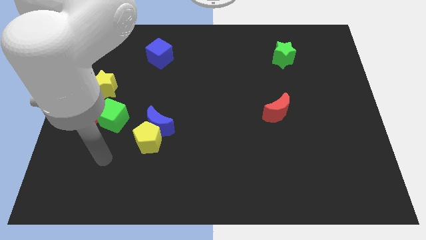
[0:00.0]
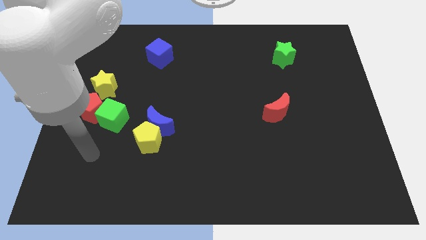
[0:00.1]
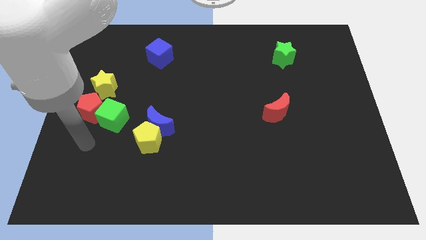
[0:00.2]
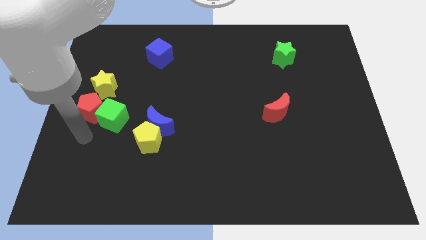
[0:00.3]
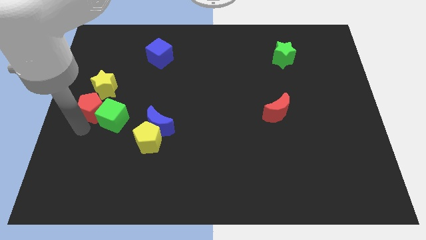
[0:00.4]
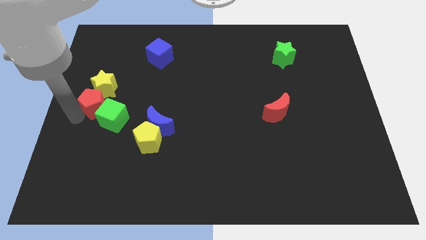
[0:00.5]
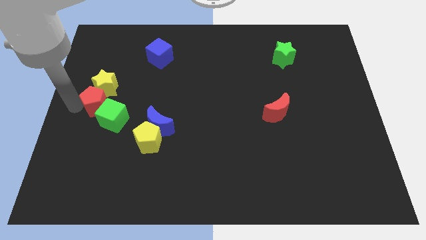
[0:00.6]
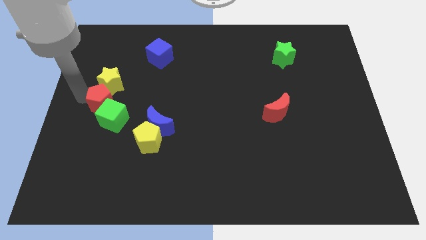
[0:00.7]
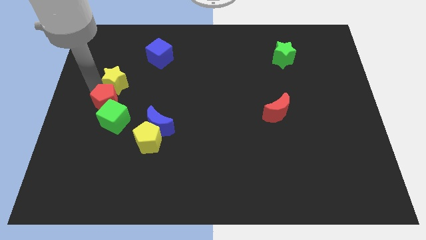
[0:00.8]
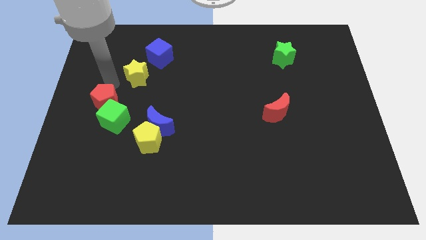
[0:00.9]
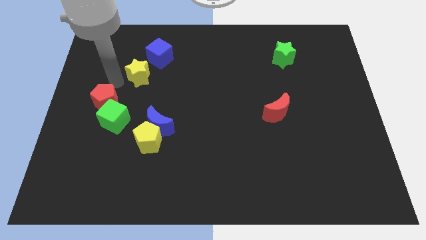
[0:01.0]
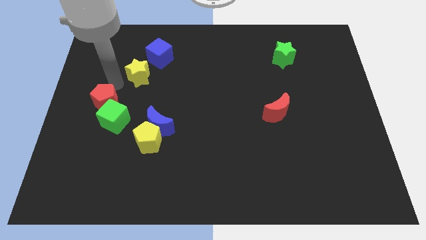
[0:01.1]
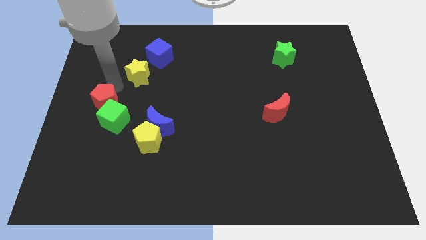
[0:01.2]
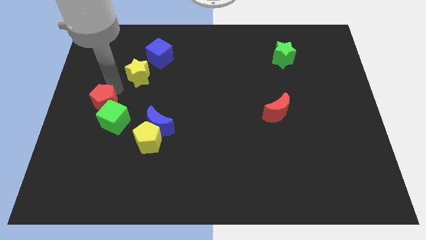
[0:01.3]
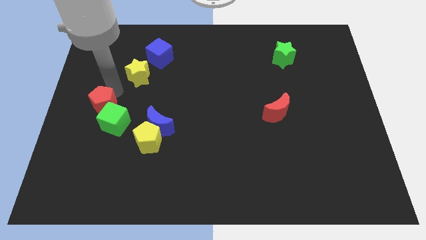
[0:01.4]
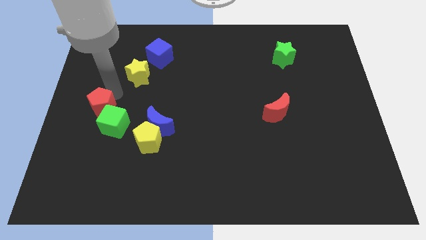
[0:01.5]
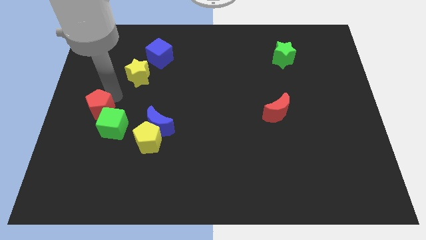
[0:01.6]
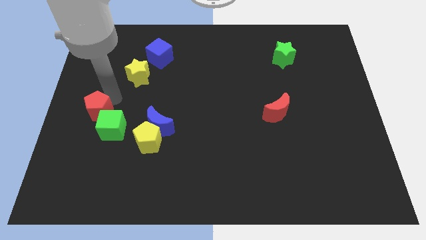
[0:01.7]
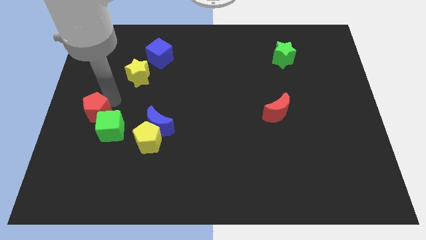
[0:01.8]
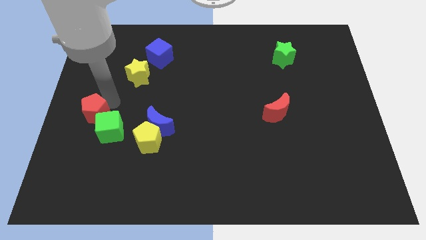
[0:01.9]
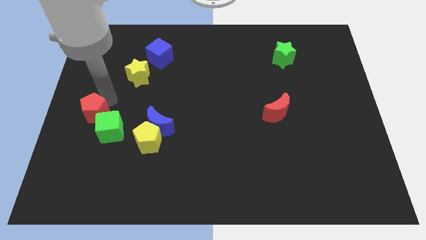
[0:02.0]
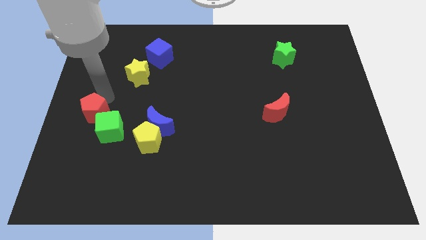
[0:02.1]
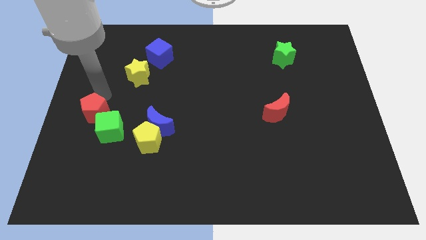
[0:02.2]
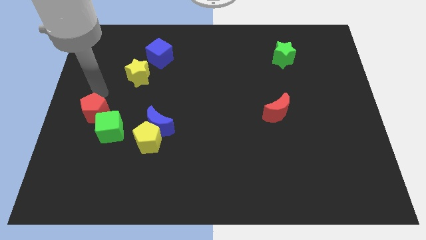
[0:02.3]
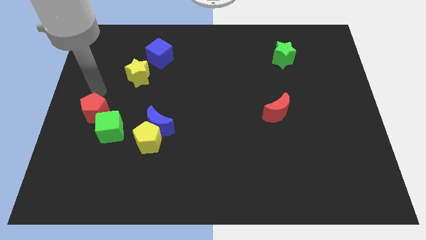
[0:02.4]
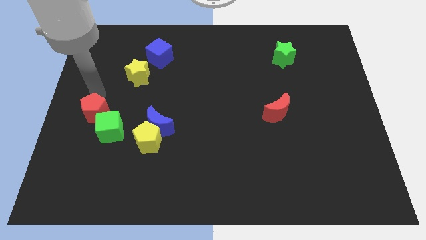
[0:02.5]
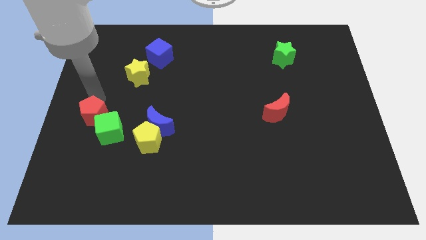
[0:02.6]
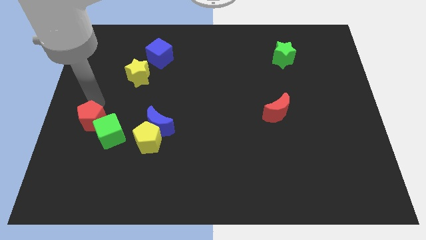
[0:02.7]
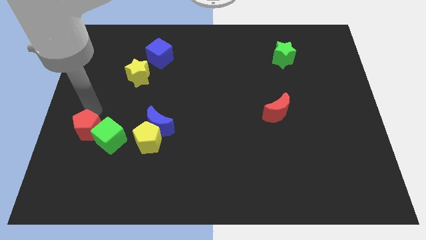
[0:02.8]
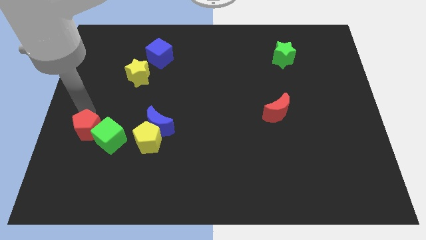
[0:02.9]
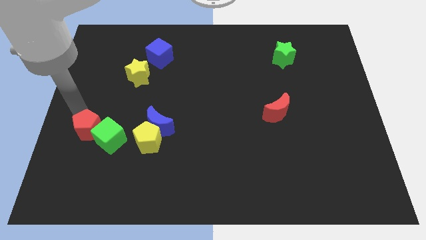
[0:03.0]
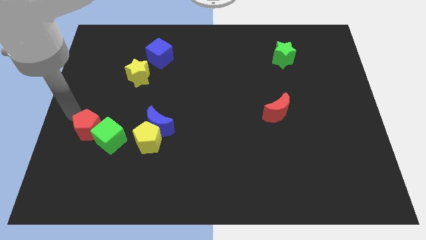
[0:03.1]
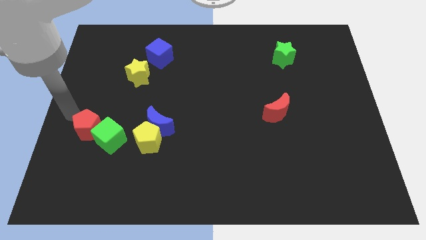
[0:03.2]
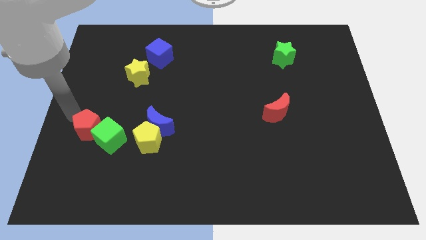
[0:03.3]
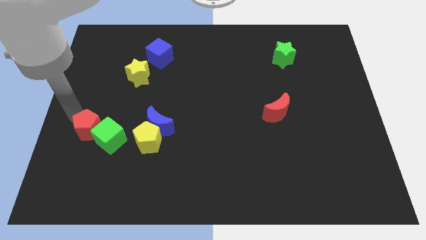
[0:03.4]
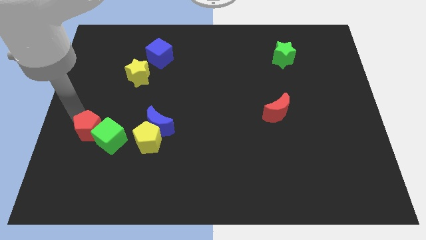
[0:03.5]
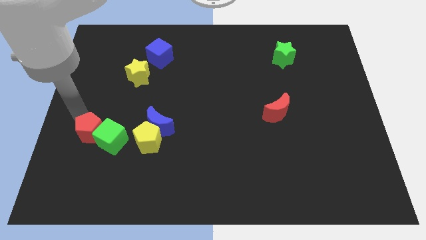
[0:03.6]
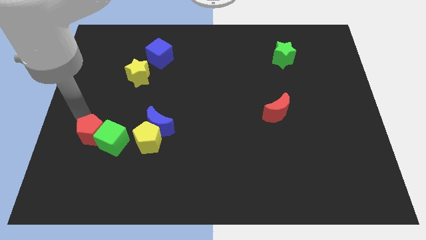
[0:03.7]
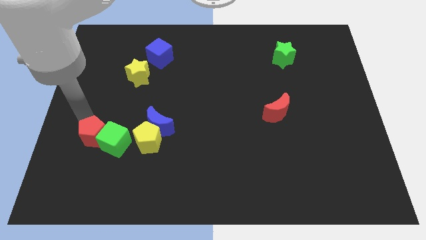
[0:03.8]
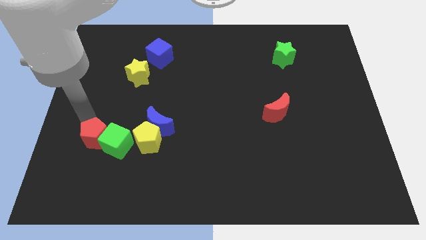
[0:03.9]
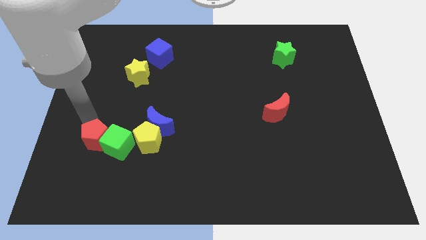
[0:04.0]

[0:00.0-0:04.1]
slightly push the red pentagon downwards and to the right

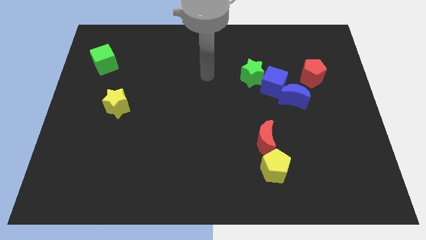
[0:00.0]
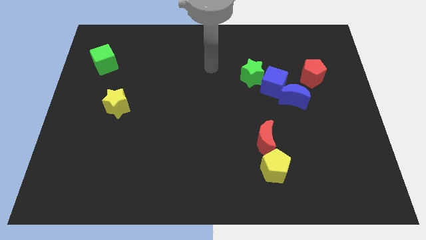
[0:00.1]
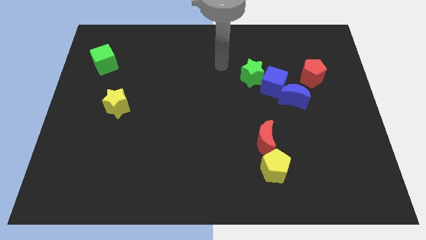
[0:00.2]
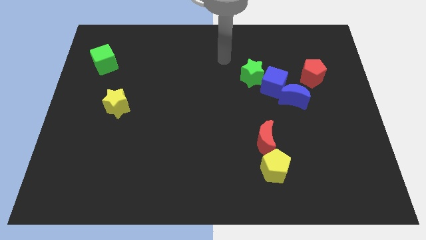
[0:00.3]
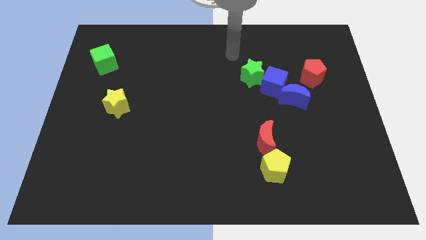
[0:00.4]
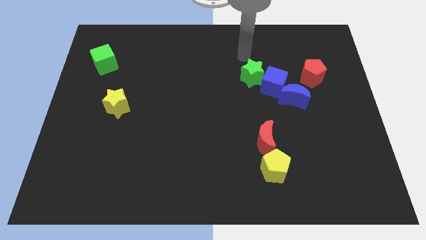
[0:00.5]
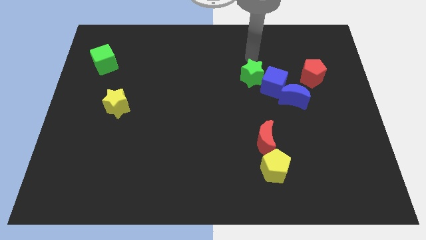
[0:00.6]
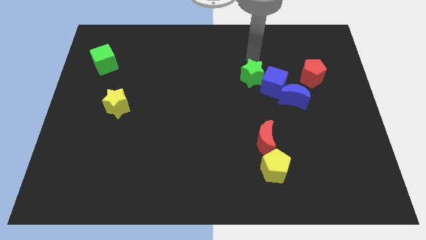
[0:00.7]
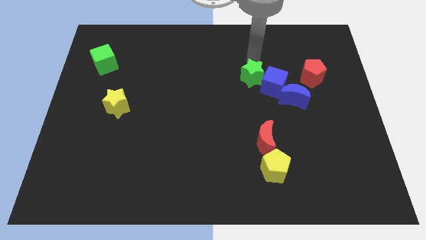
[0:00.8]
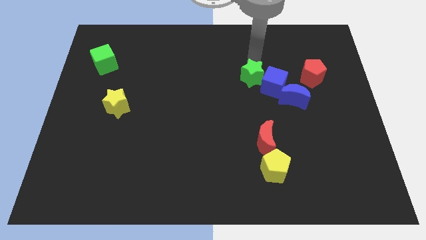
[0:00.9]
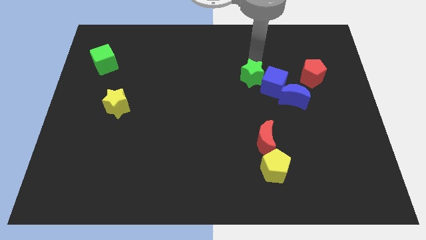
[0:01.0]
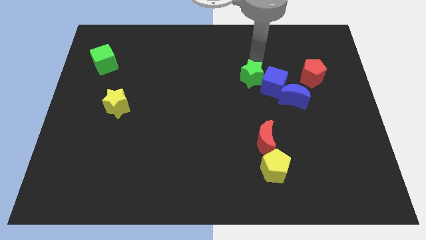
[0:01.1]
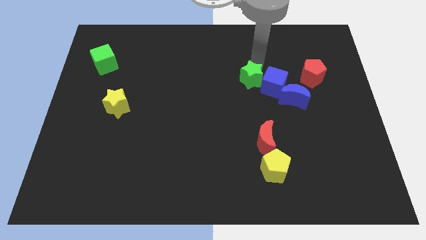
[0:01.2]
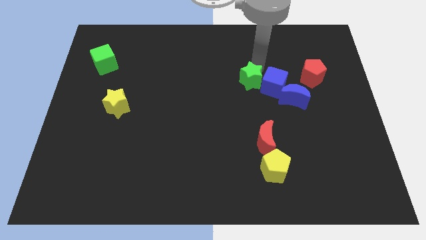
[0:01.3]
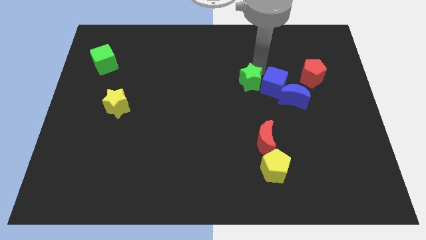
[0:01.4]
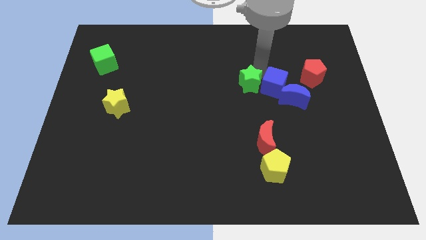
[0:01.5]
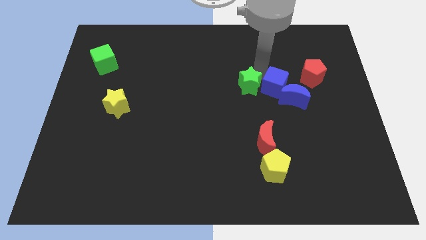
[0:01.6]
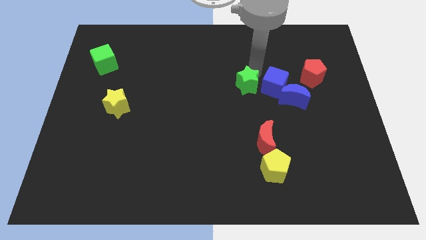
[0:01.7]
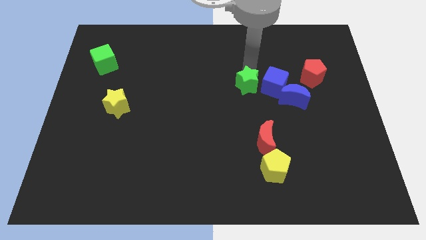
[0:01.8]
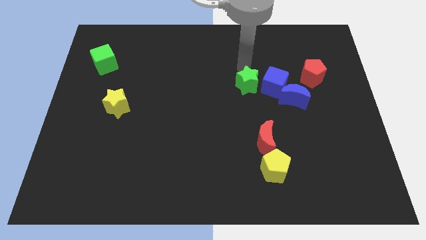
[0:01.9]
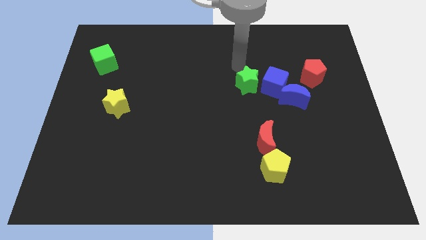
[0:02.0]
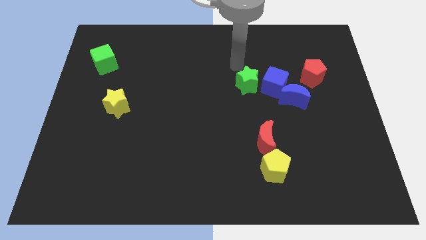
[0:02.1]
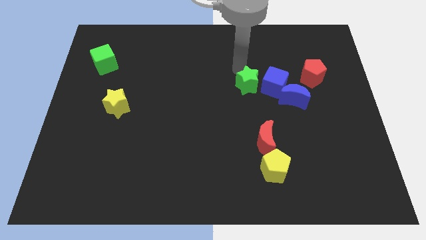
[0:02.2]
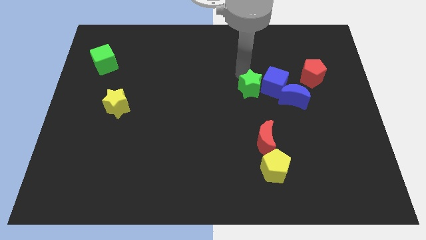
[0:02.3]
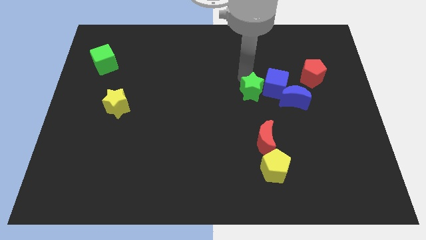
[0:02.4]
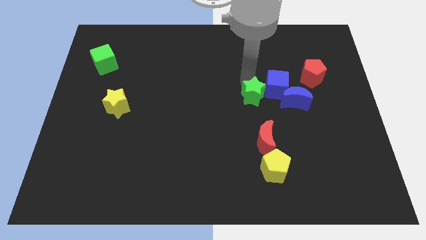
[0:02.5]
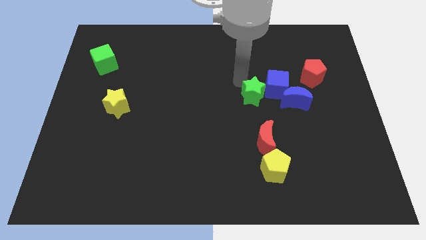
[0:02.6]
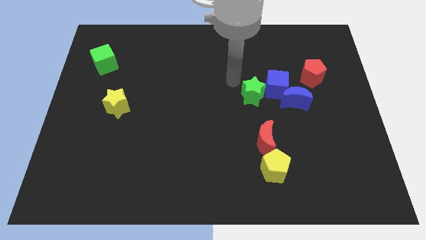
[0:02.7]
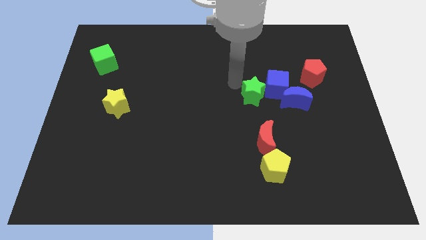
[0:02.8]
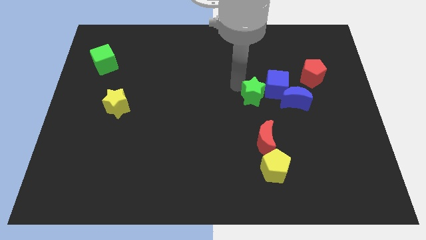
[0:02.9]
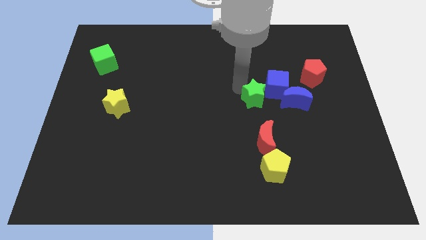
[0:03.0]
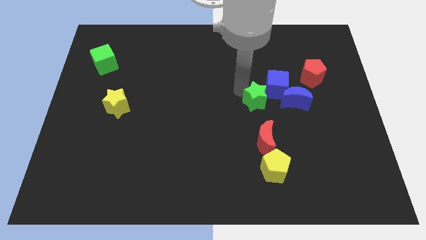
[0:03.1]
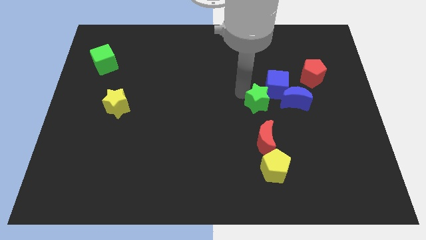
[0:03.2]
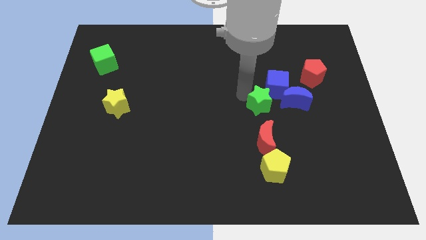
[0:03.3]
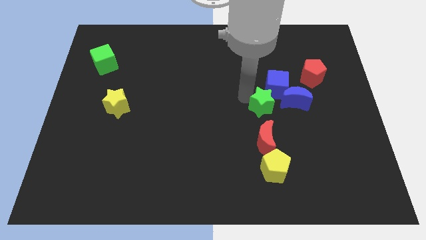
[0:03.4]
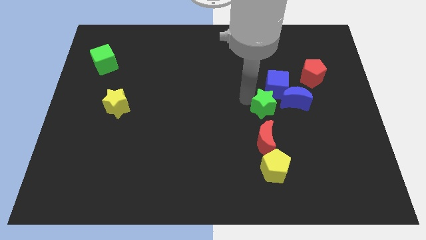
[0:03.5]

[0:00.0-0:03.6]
slide the green star a bit downwards and to the right diagonally
